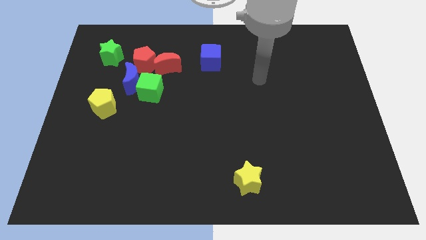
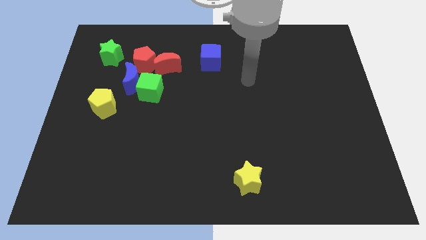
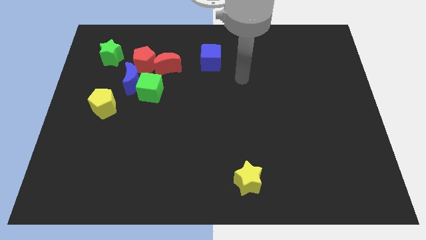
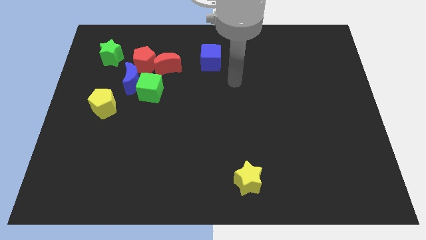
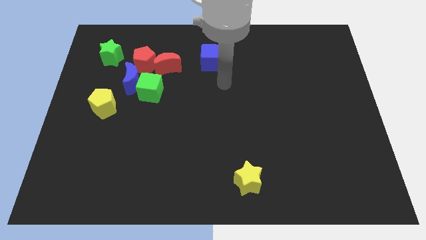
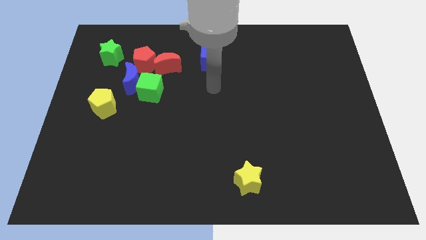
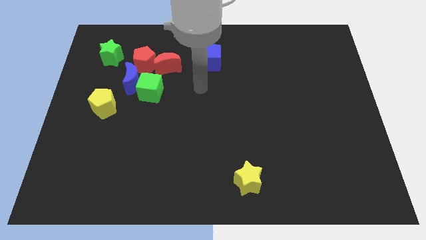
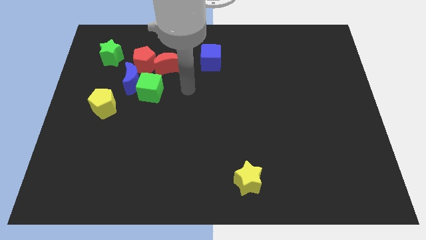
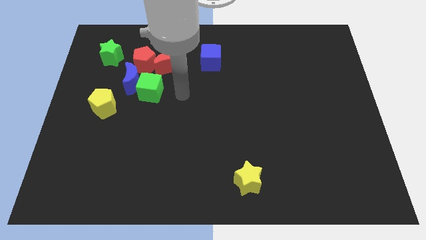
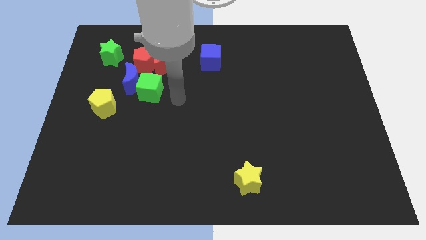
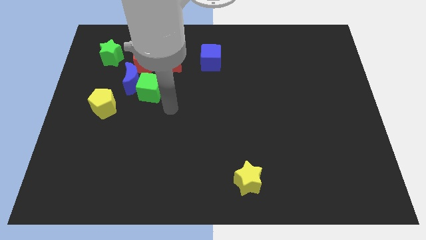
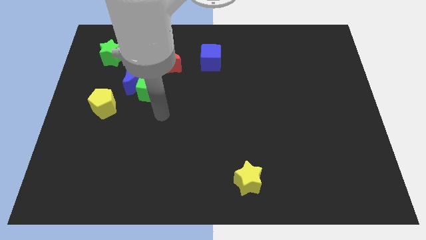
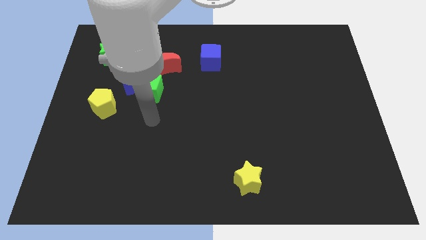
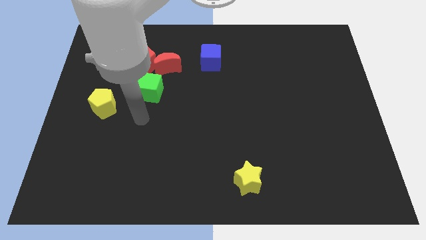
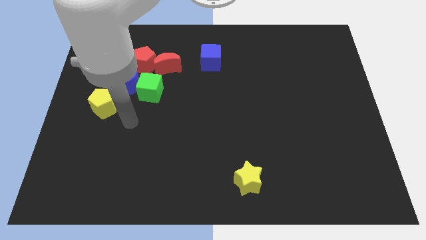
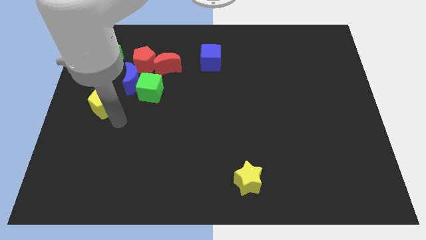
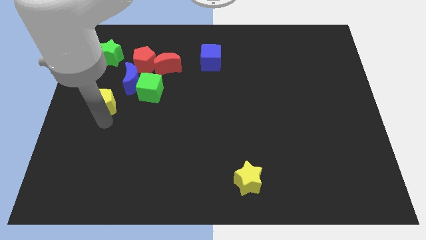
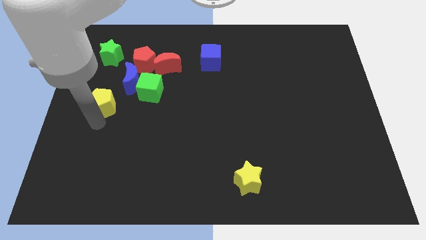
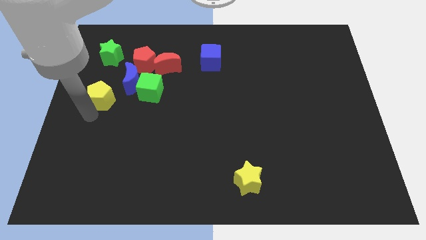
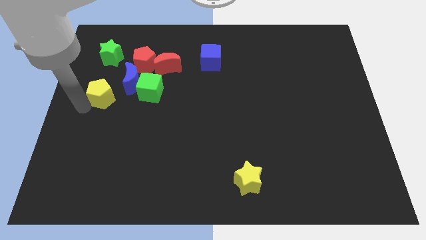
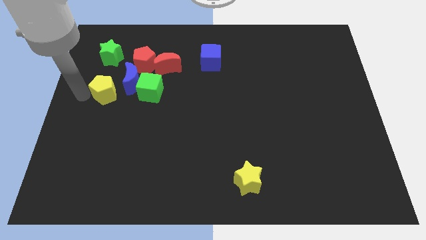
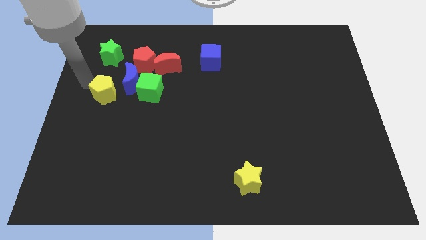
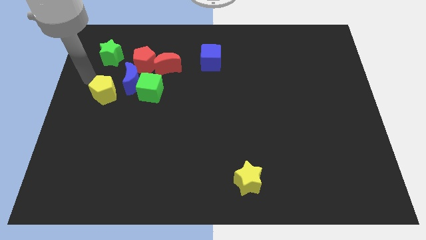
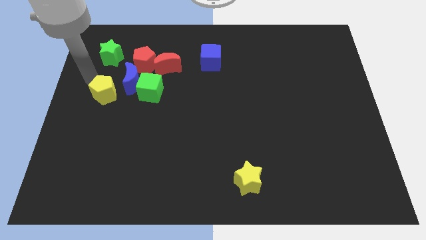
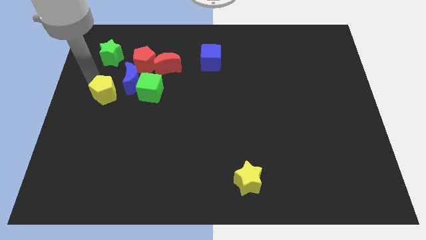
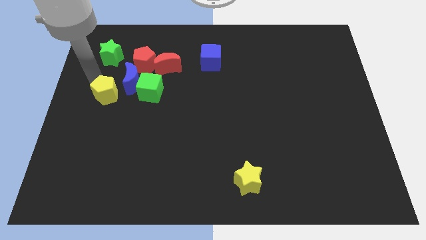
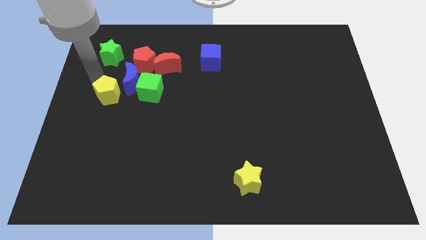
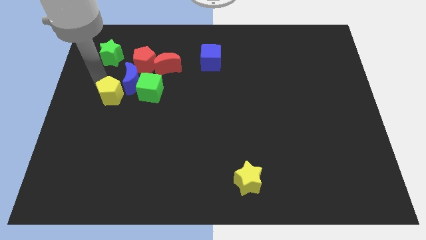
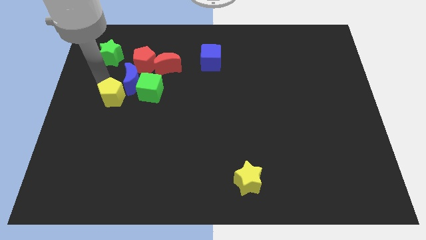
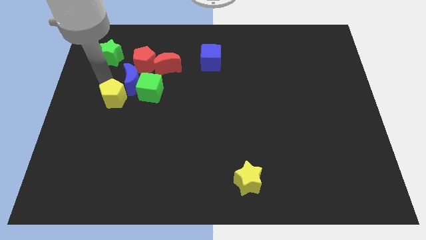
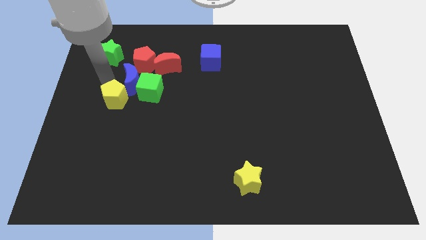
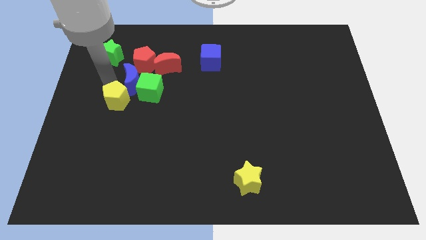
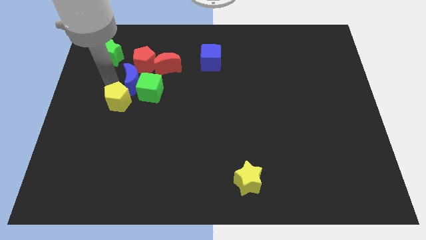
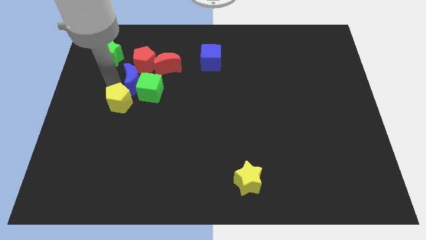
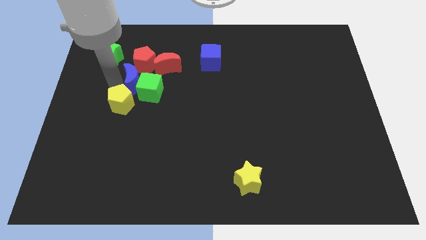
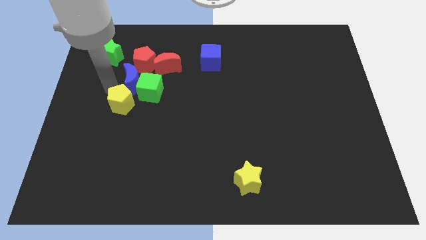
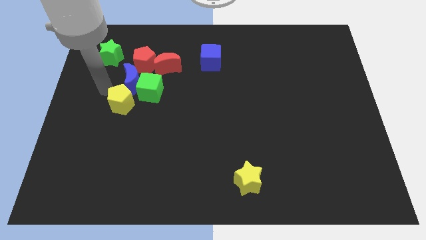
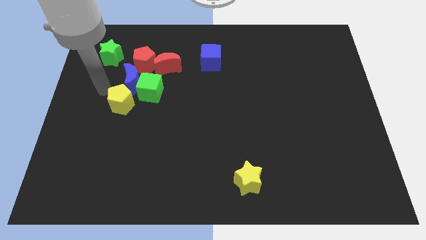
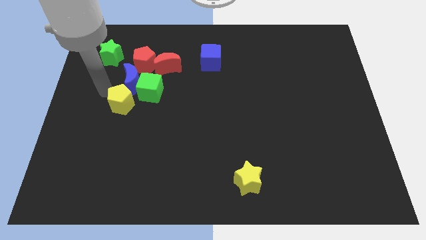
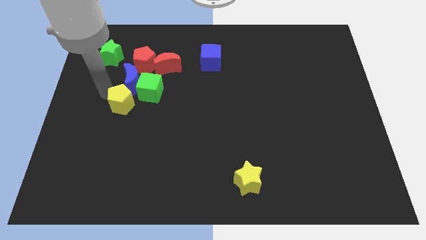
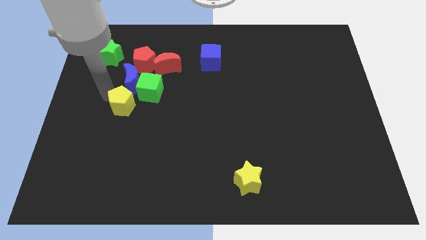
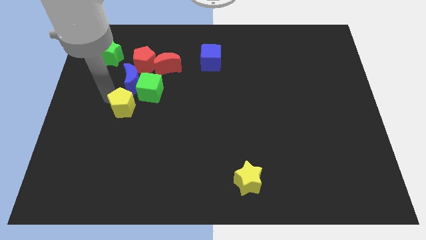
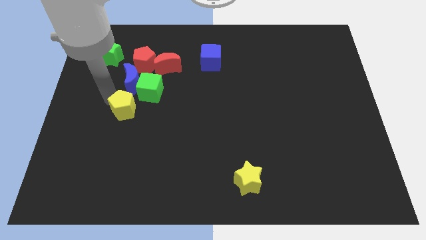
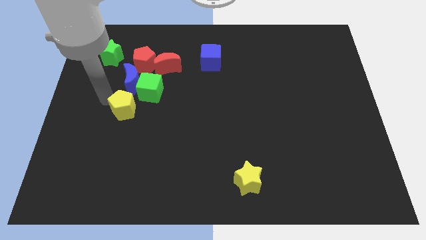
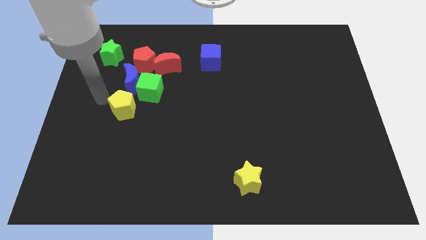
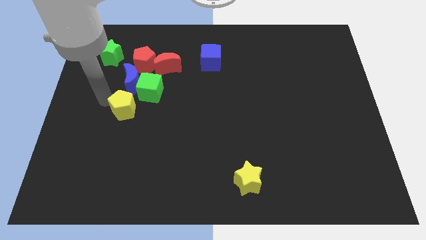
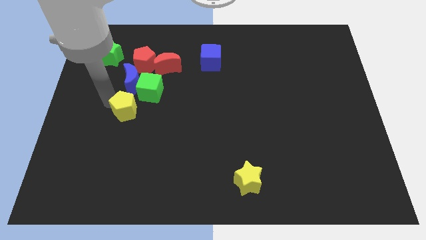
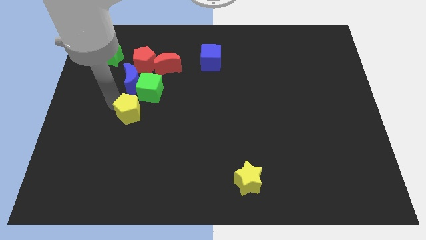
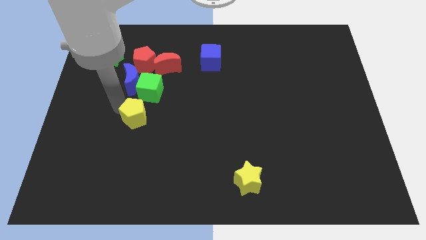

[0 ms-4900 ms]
slightly move the yellow pentagon to the right

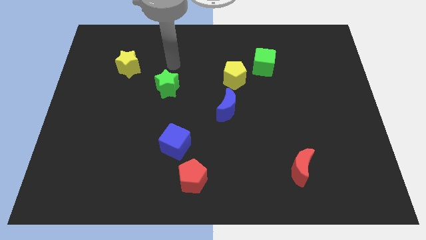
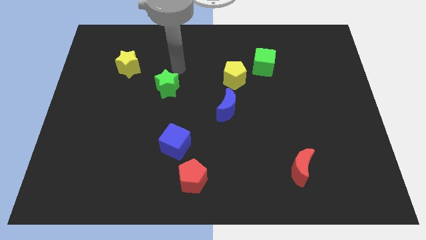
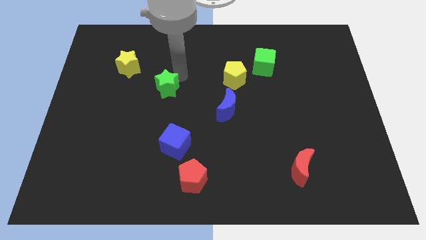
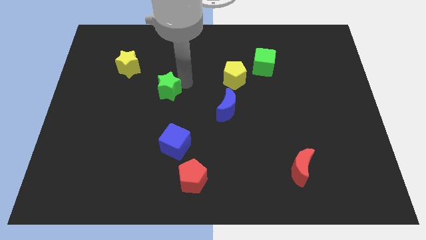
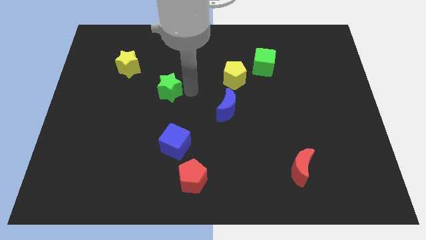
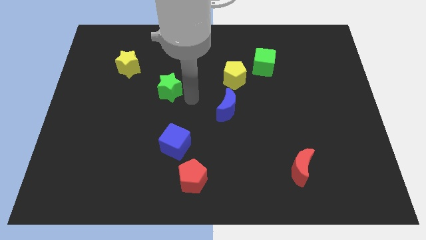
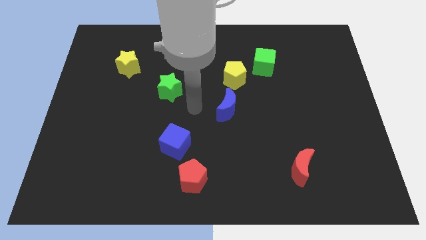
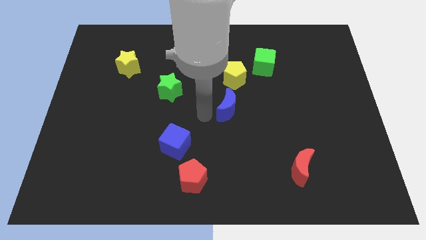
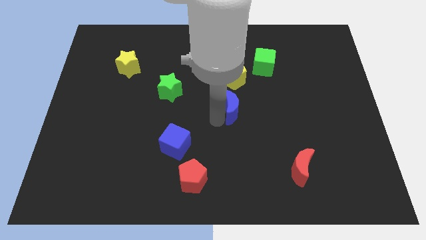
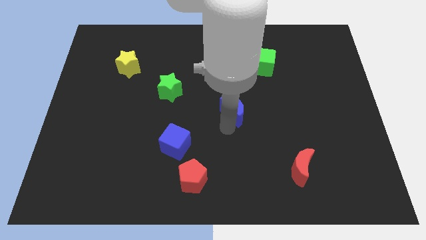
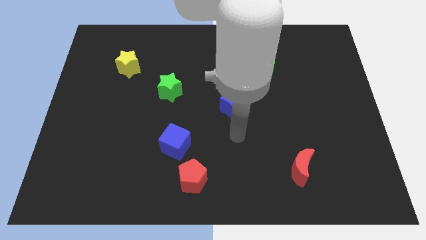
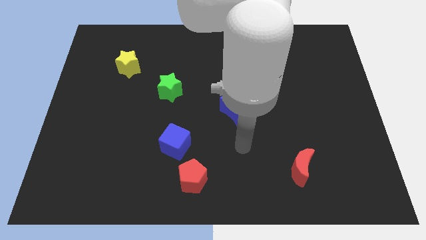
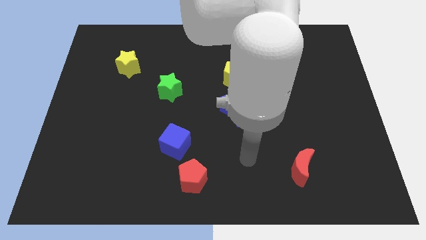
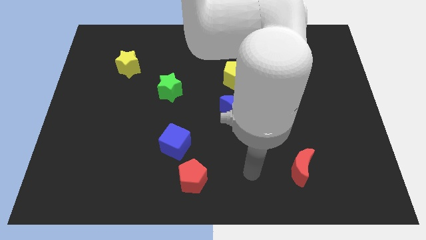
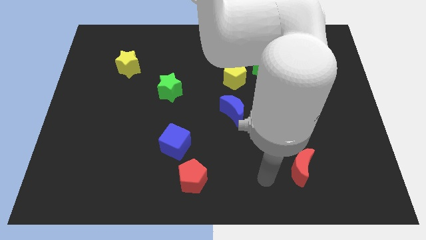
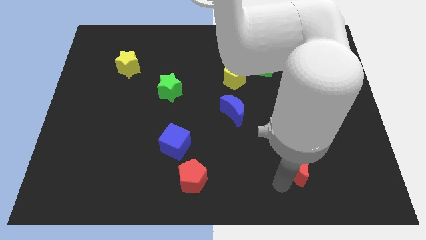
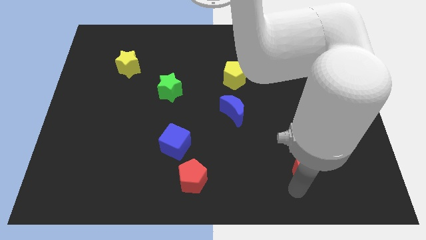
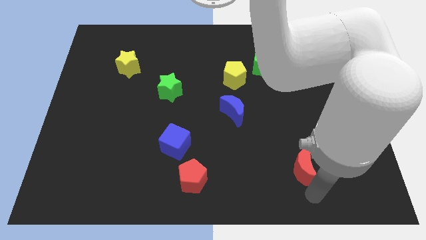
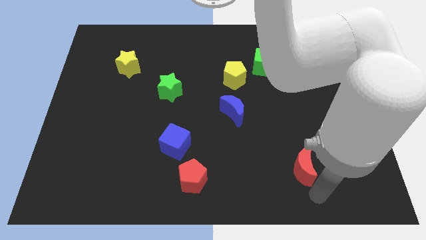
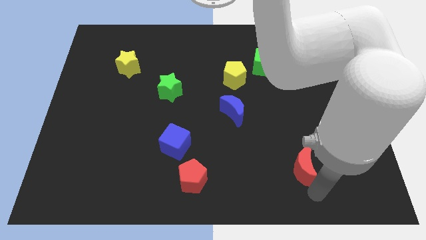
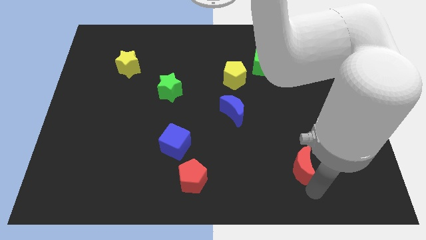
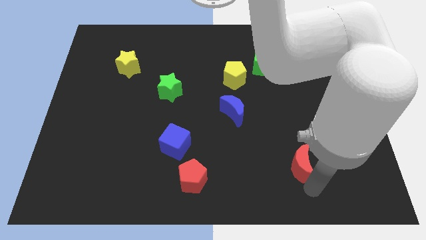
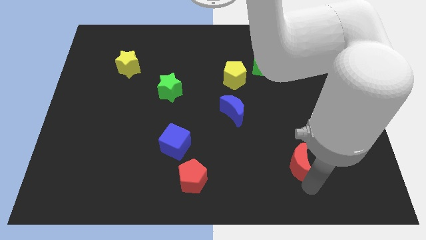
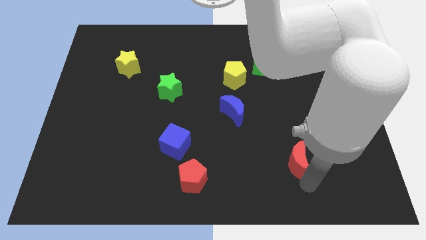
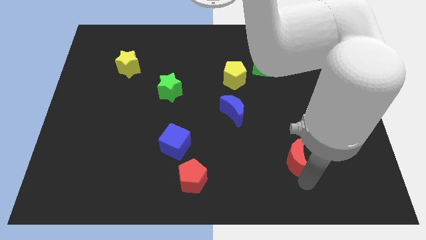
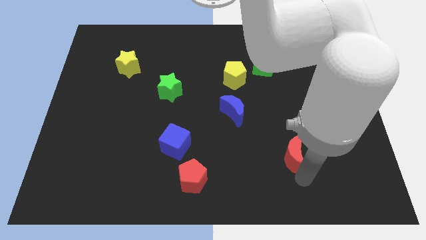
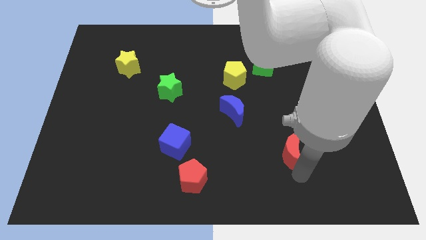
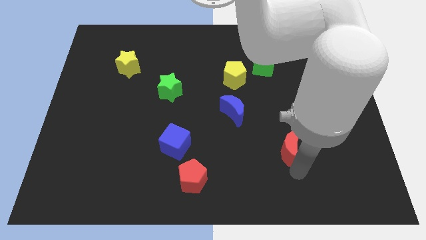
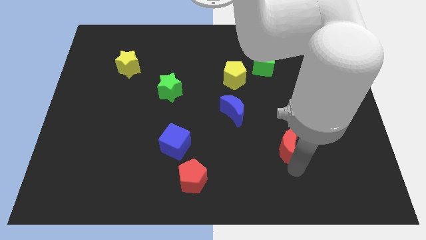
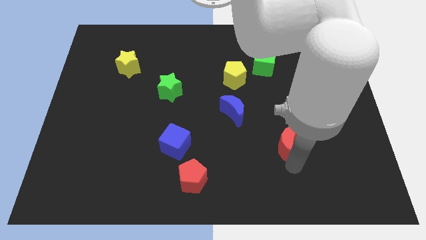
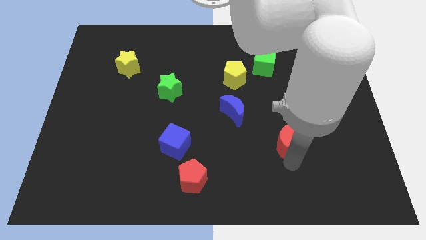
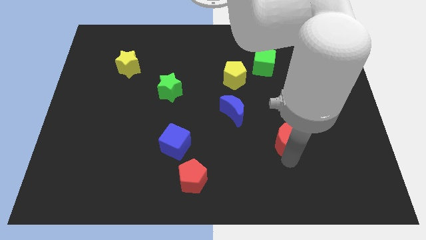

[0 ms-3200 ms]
slightly move the red moon upwards
